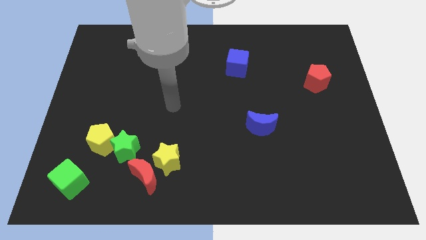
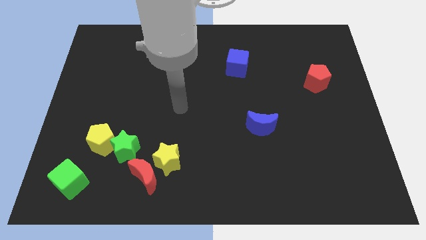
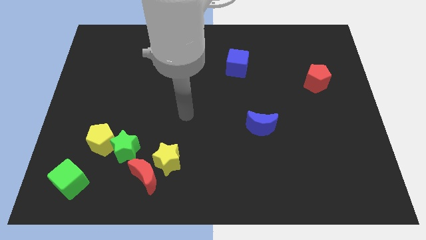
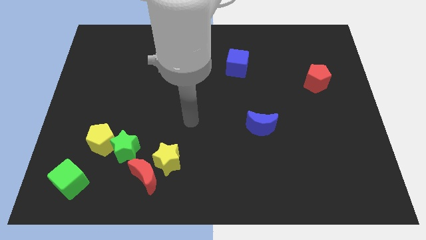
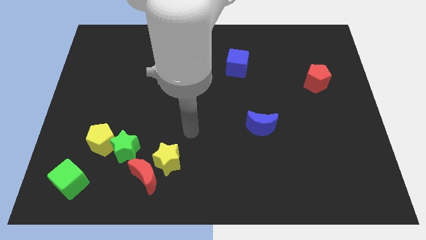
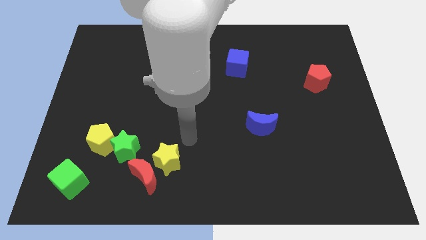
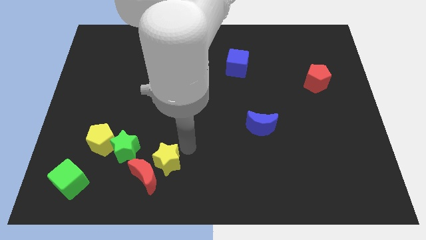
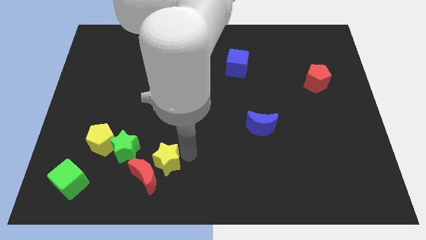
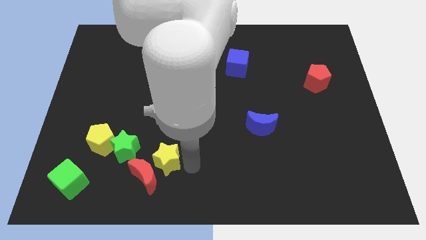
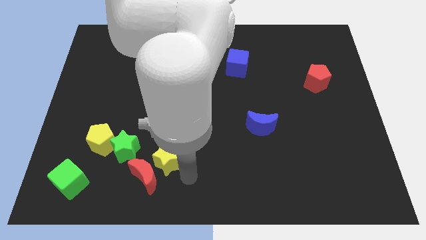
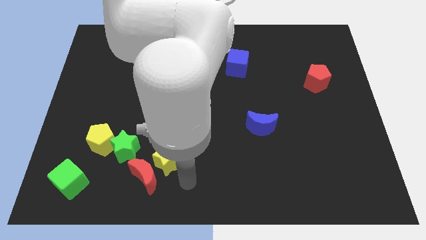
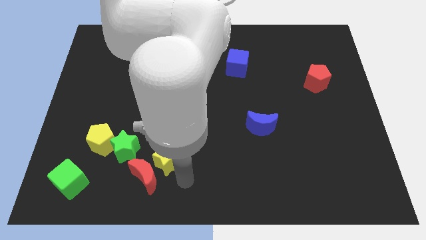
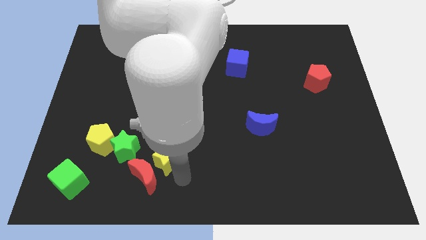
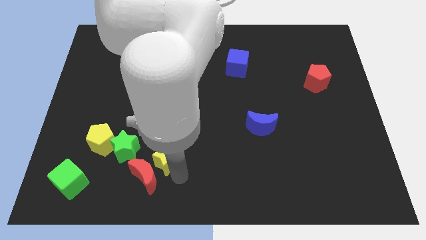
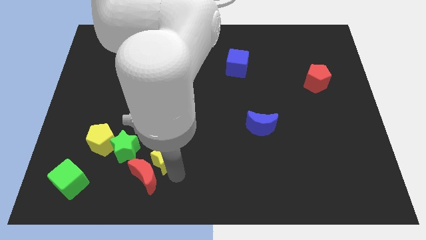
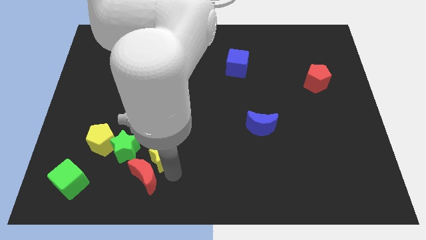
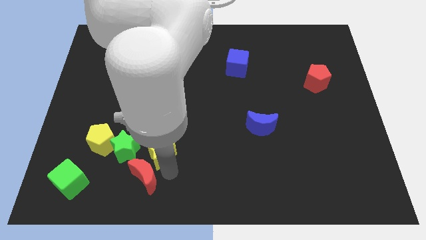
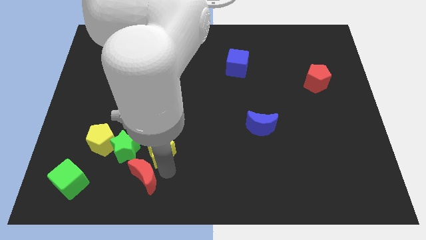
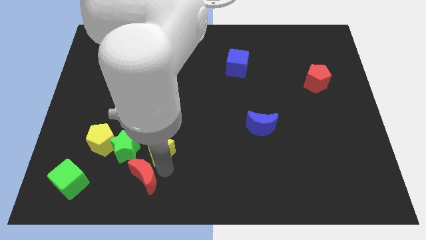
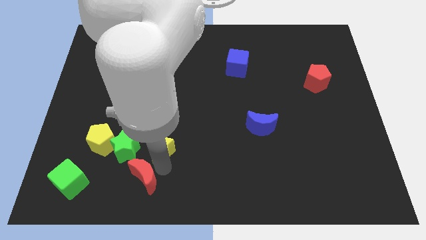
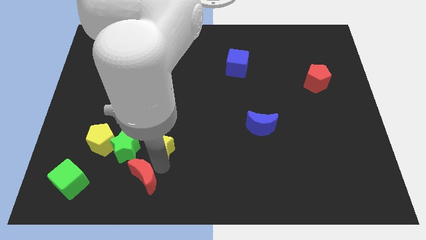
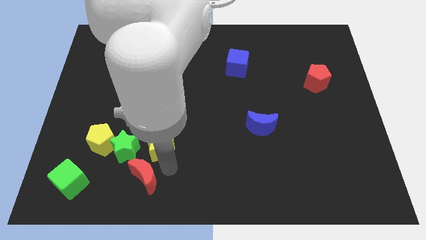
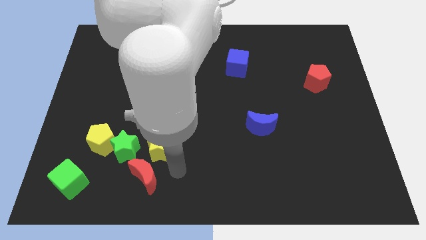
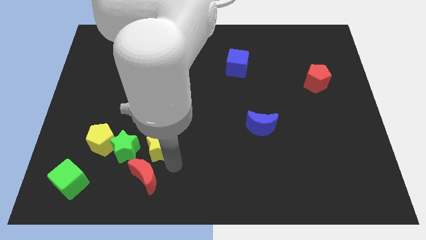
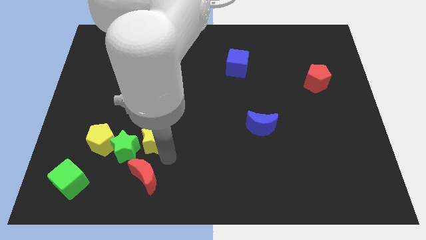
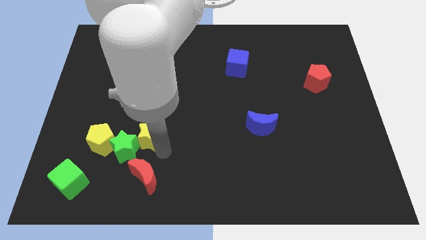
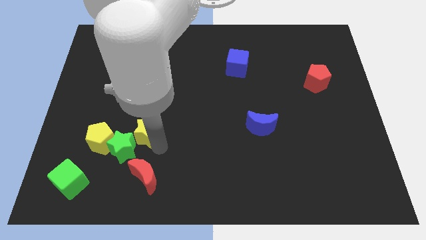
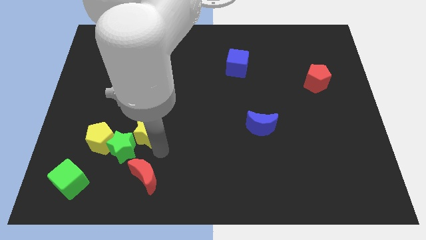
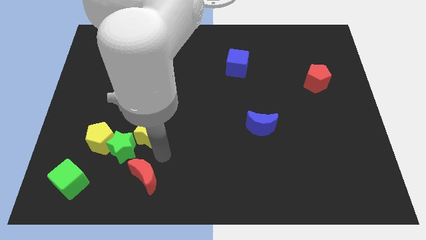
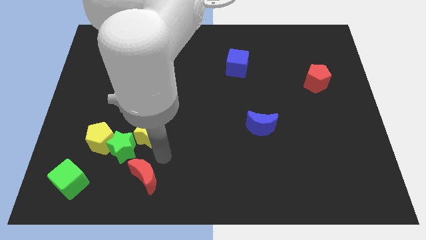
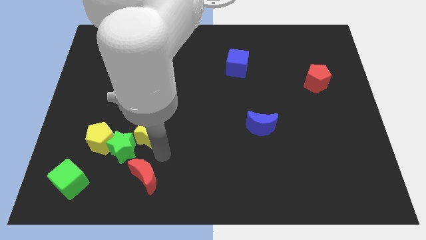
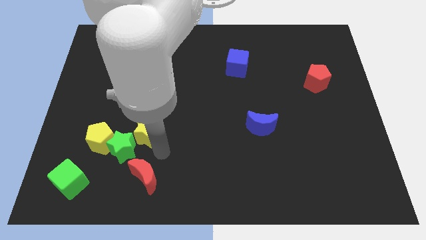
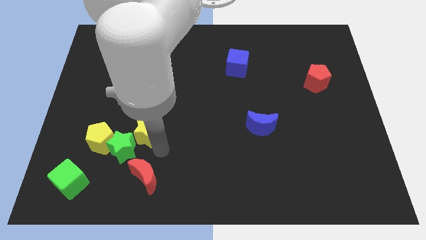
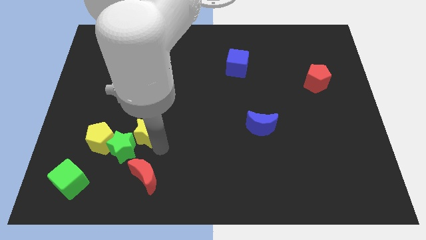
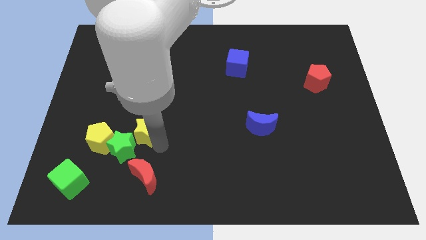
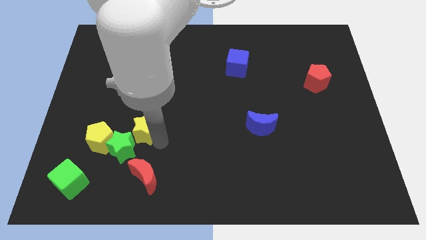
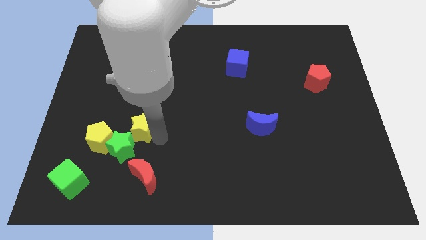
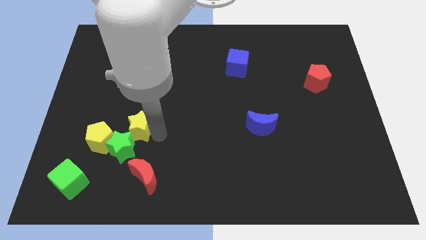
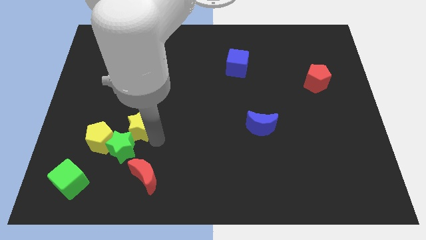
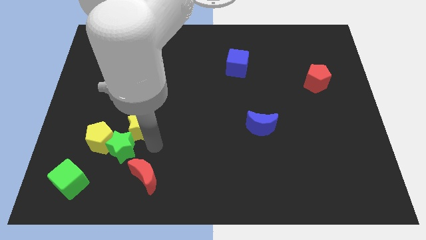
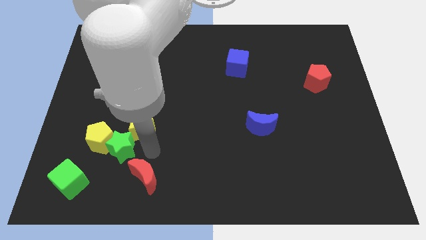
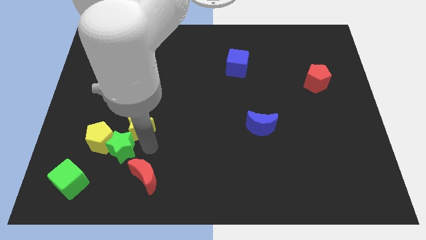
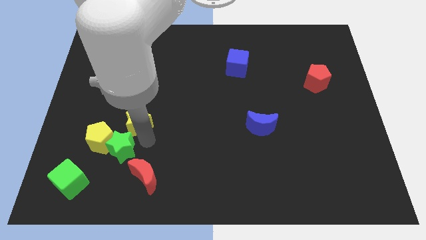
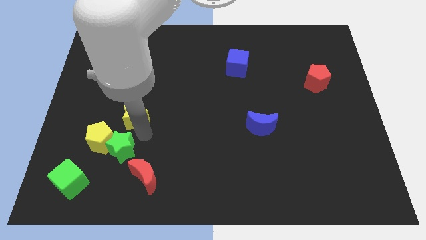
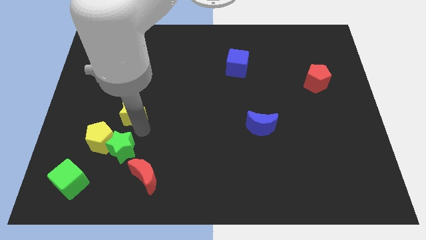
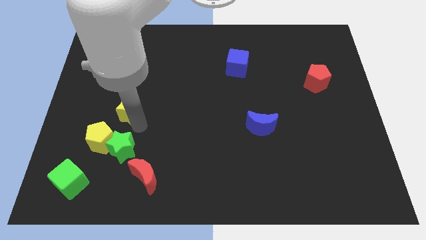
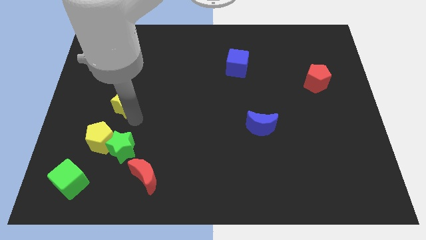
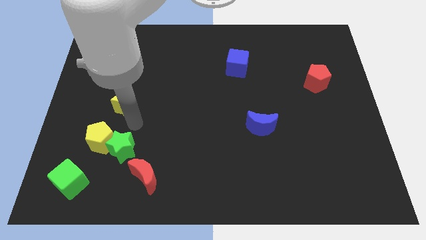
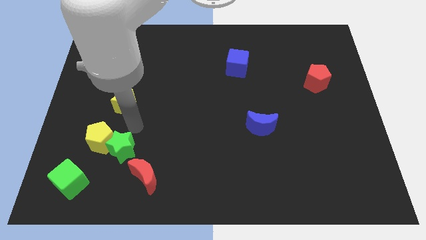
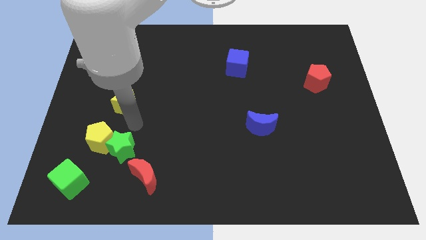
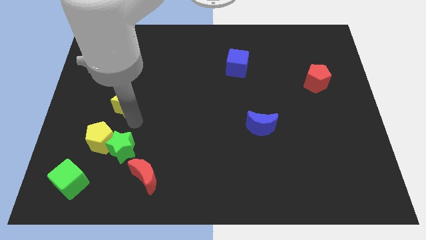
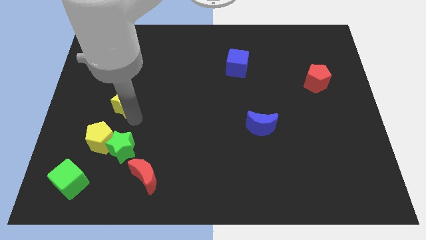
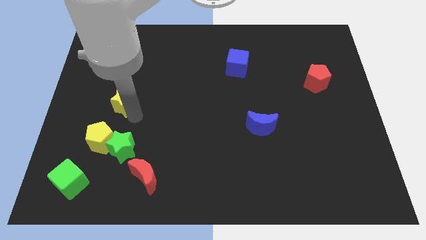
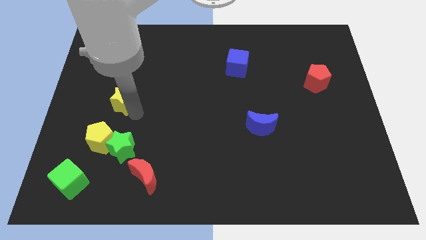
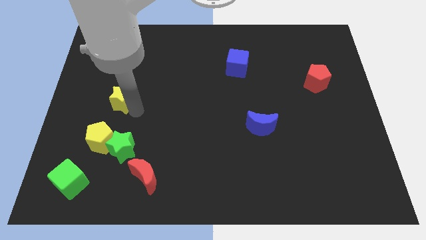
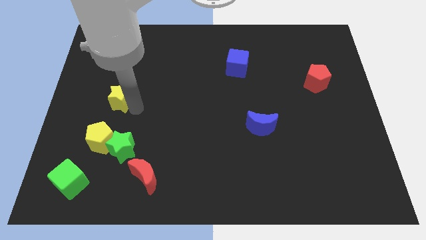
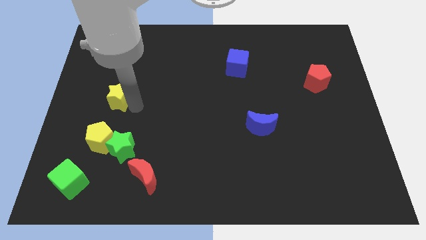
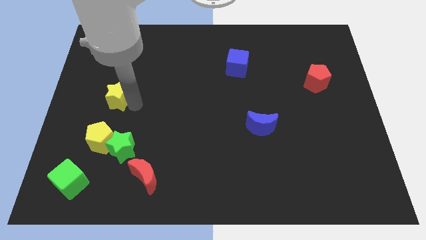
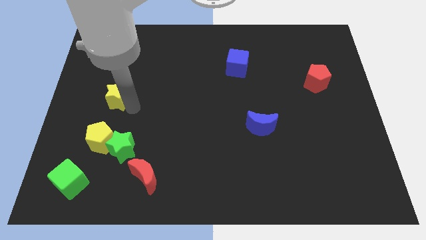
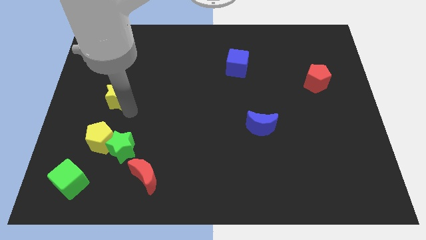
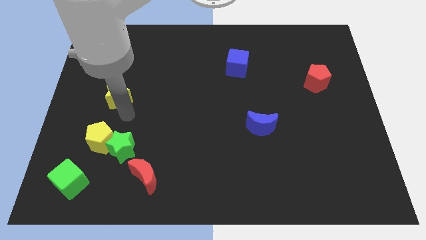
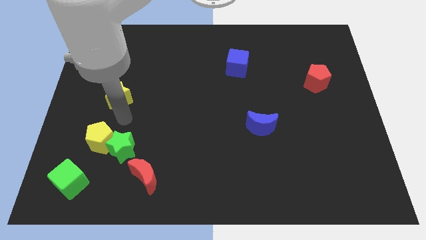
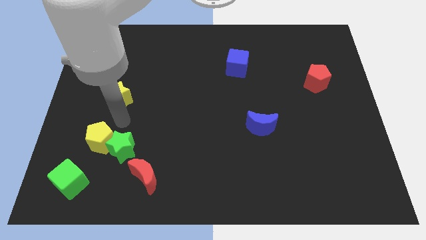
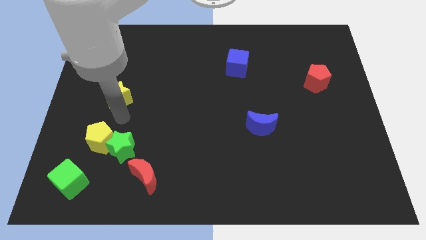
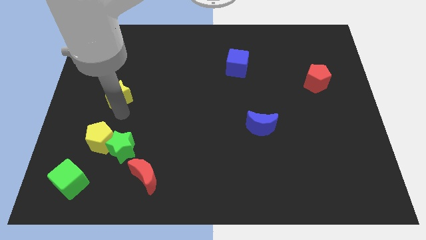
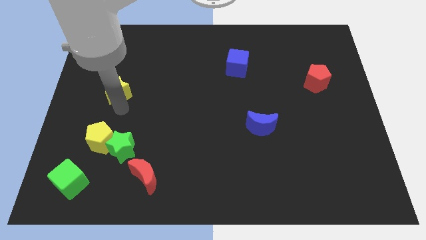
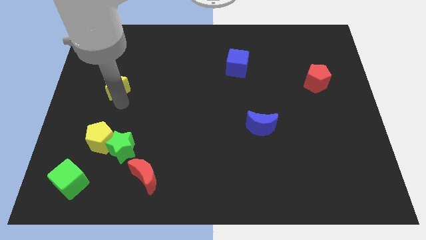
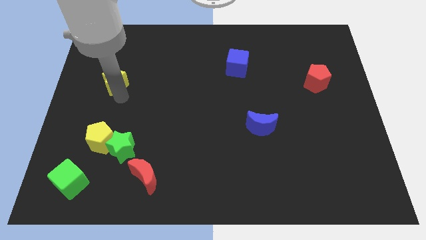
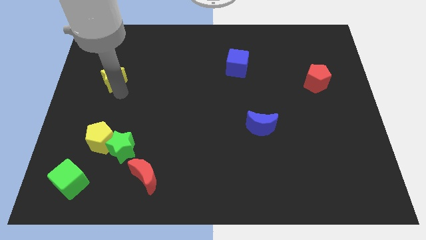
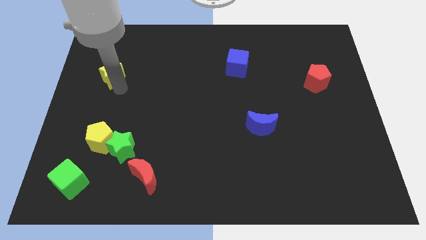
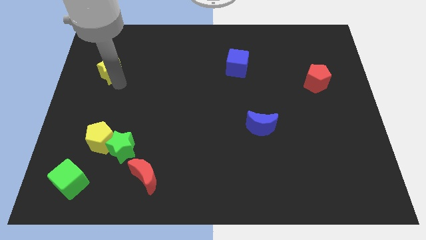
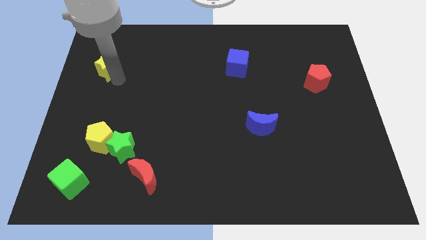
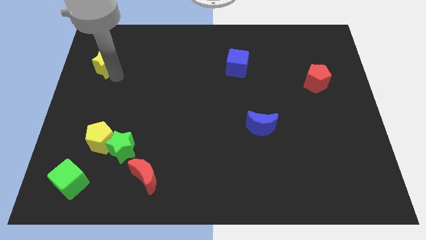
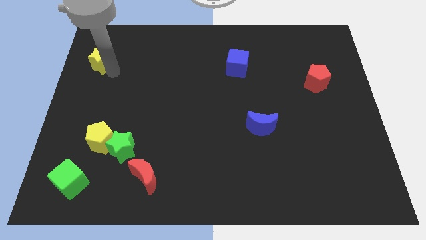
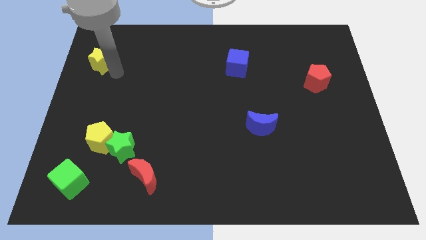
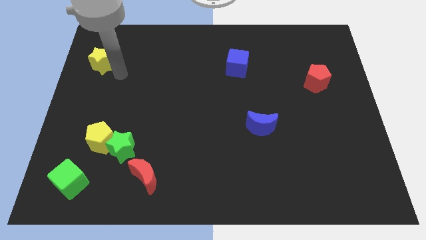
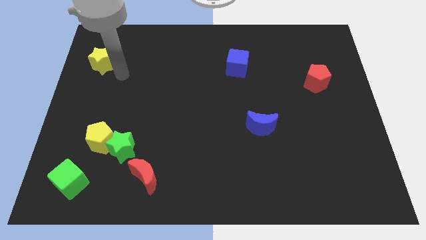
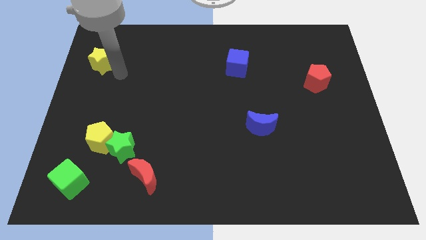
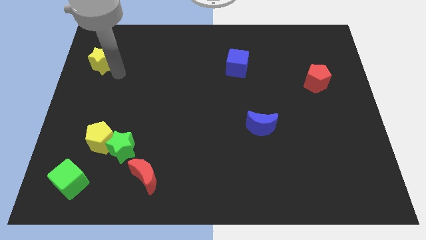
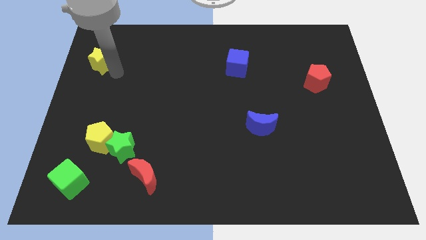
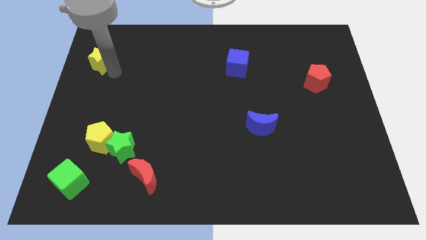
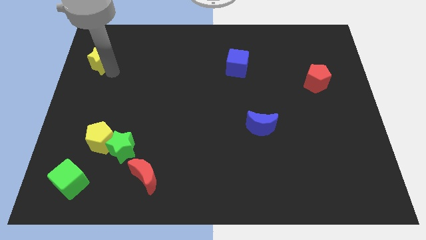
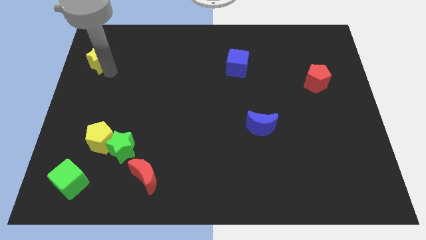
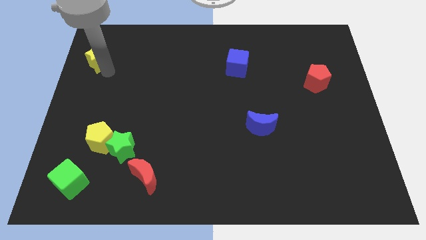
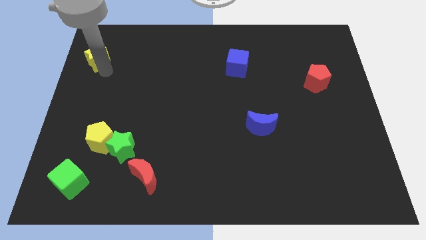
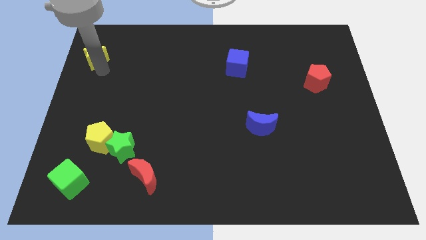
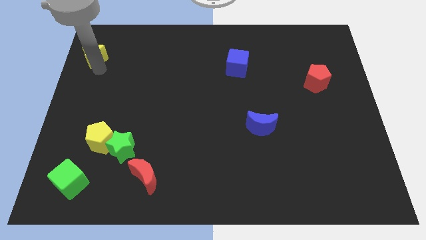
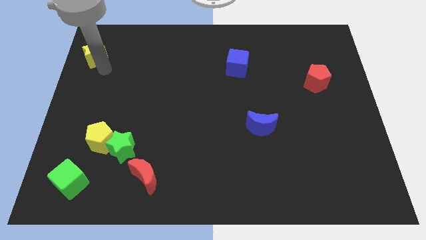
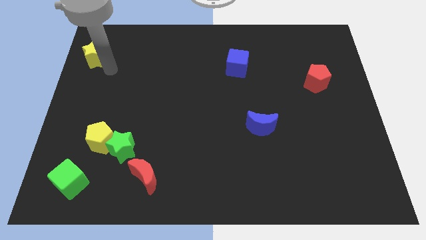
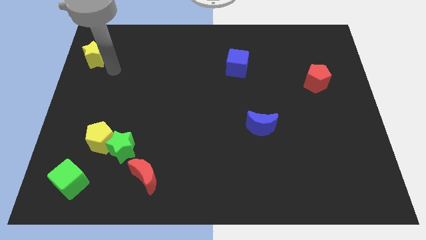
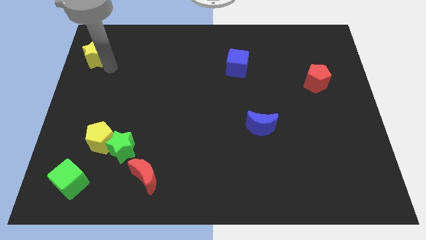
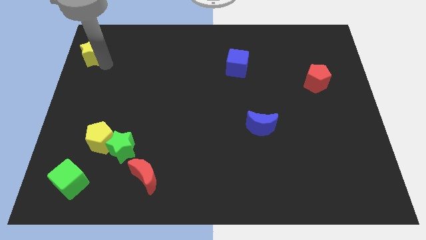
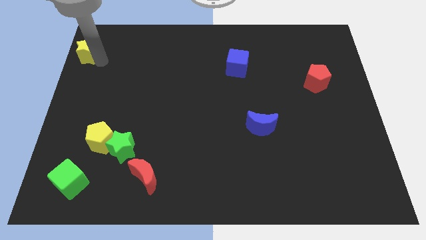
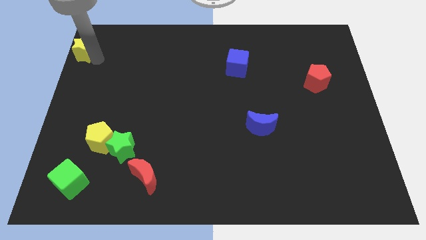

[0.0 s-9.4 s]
move the yellow star to the top left
